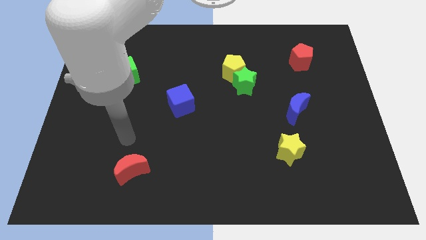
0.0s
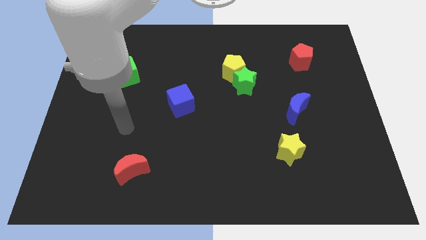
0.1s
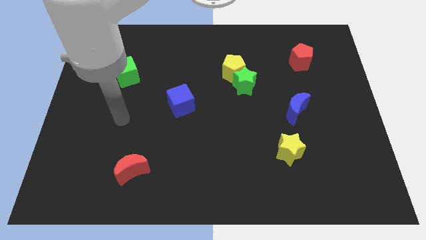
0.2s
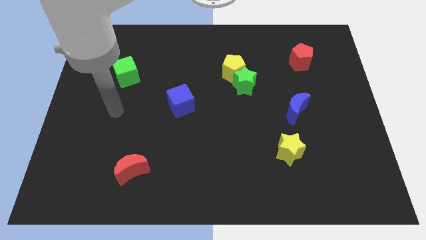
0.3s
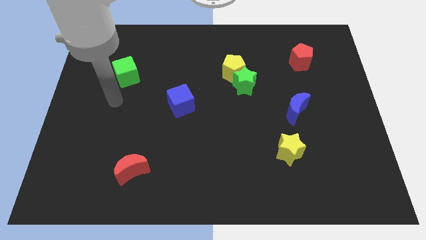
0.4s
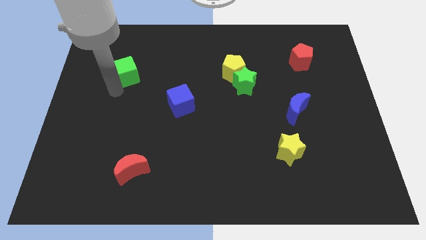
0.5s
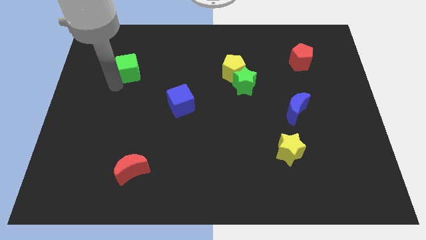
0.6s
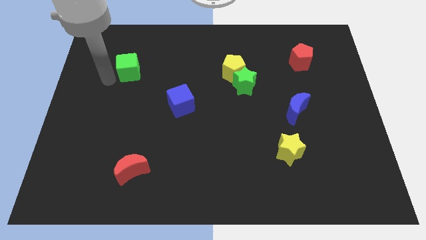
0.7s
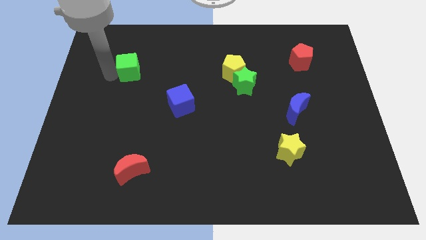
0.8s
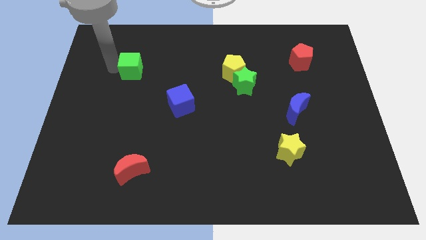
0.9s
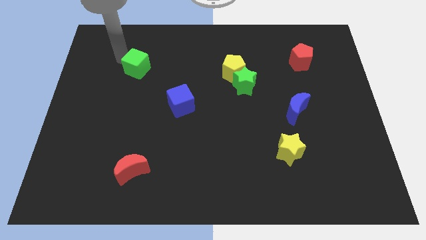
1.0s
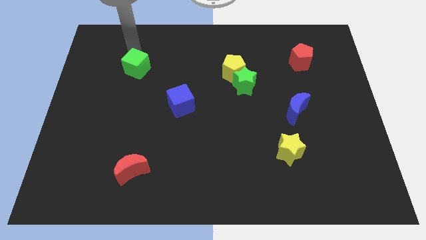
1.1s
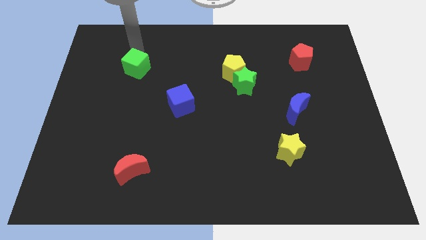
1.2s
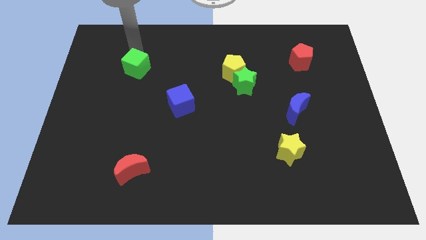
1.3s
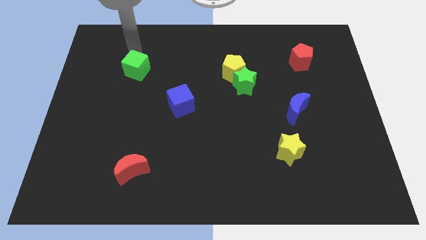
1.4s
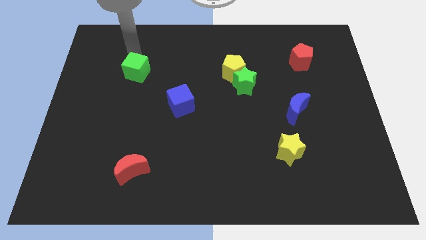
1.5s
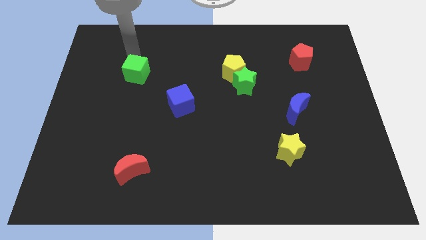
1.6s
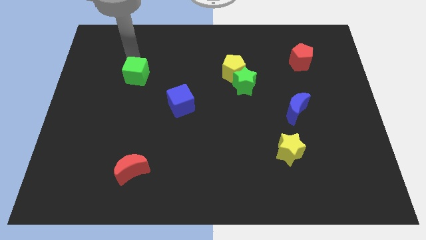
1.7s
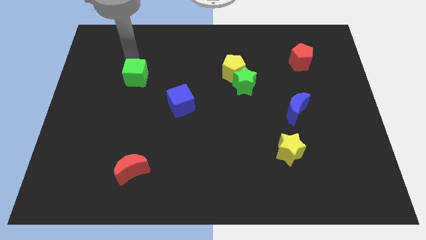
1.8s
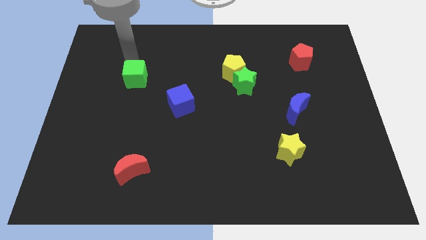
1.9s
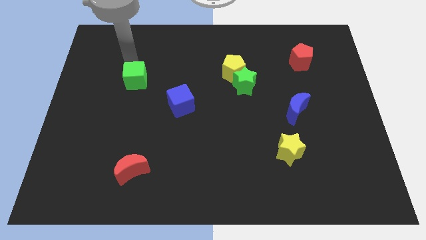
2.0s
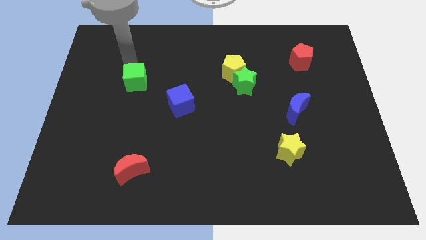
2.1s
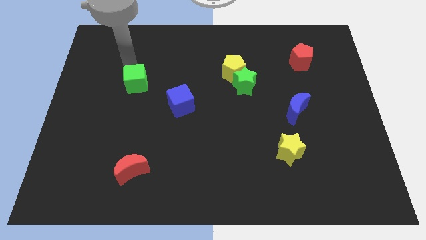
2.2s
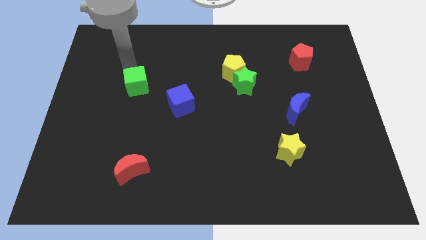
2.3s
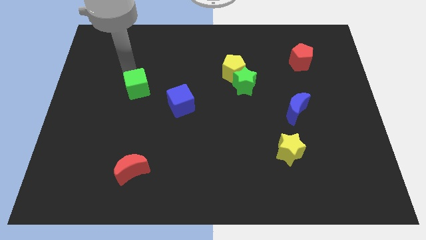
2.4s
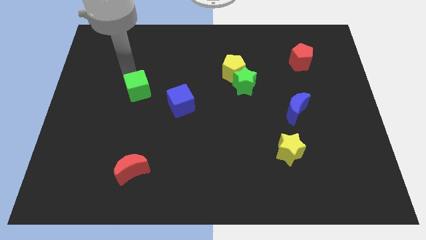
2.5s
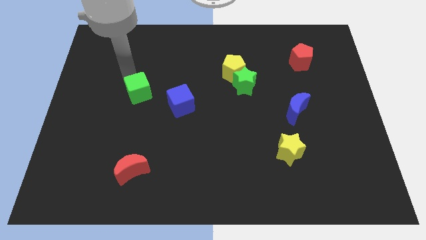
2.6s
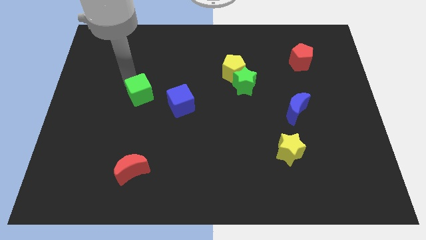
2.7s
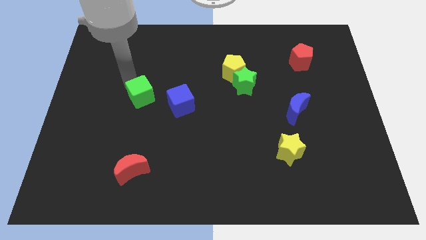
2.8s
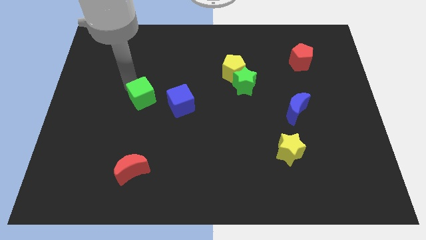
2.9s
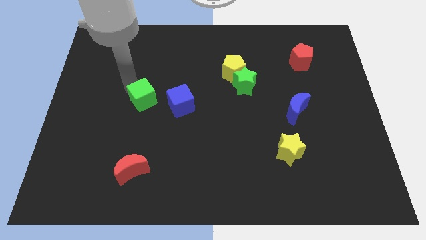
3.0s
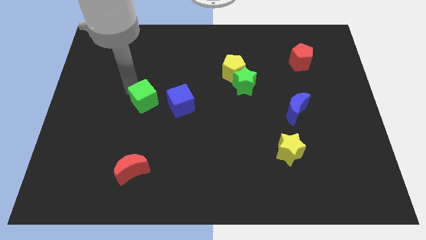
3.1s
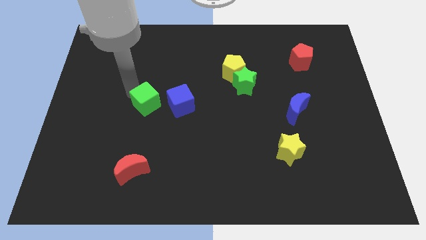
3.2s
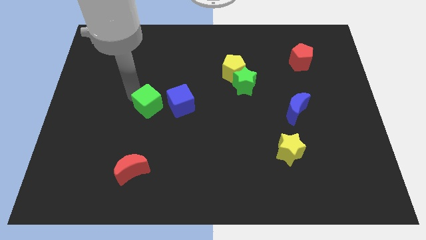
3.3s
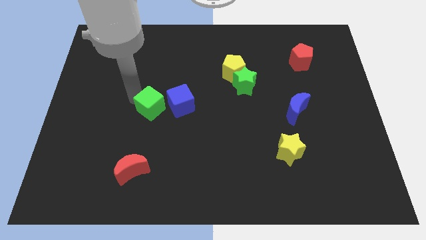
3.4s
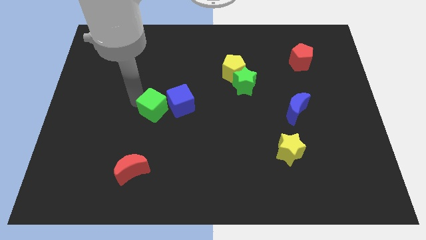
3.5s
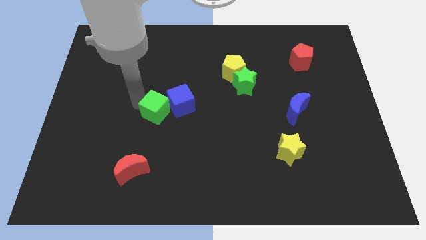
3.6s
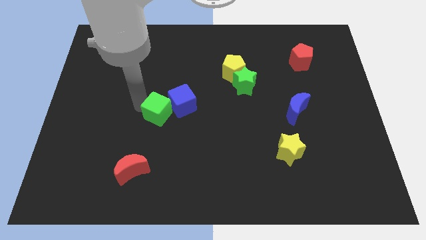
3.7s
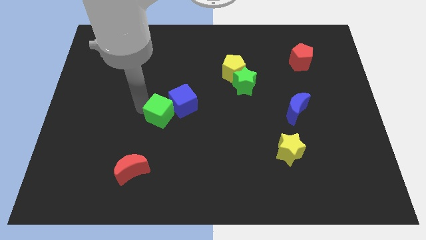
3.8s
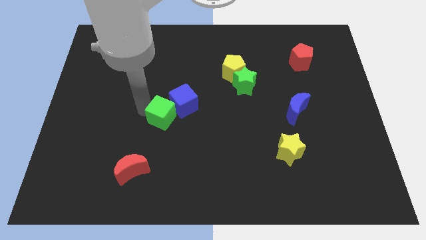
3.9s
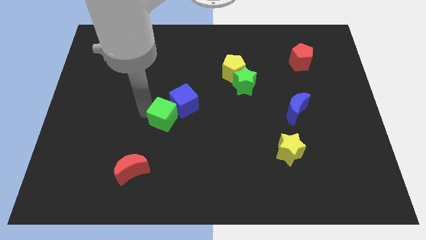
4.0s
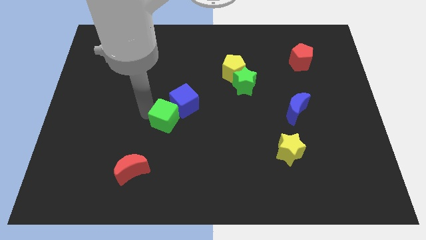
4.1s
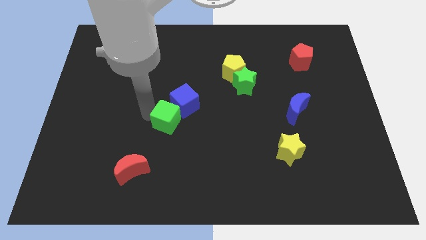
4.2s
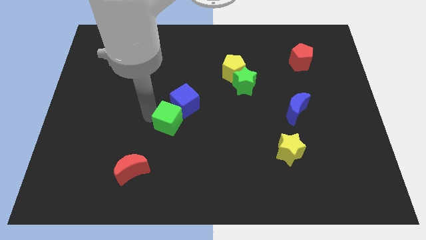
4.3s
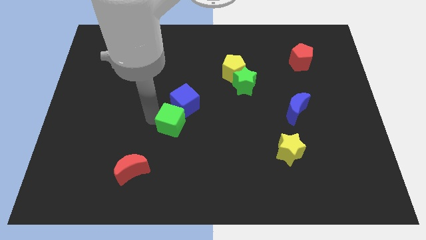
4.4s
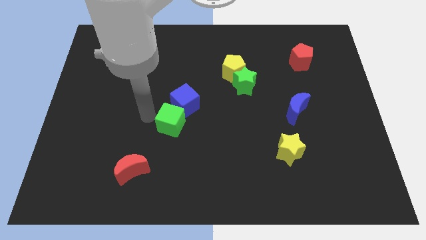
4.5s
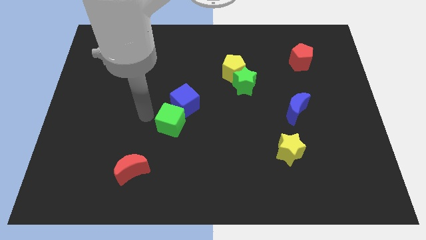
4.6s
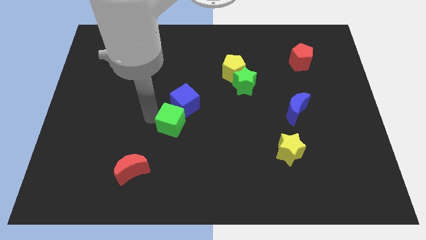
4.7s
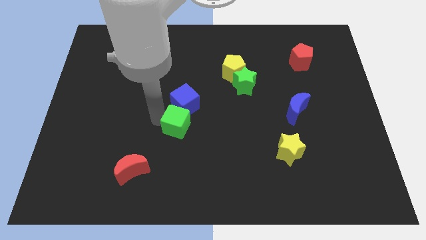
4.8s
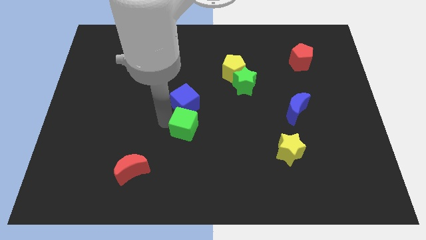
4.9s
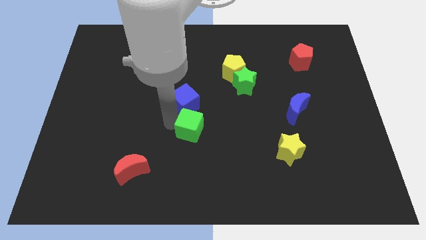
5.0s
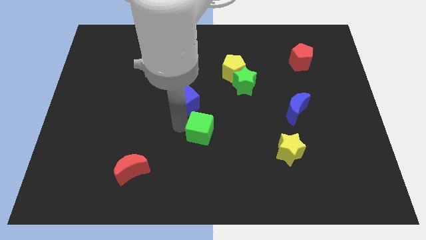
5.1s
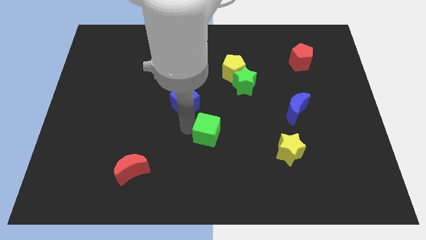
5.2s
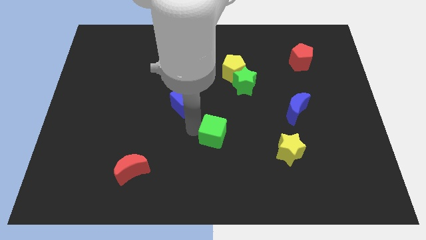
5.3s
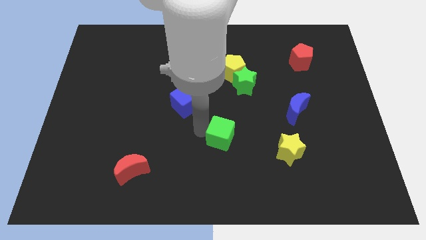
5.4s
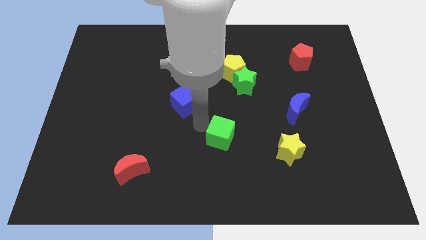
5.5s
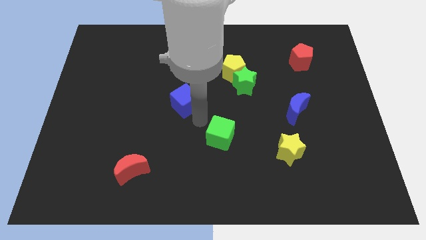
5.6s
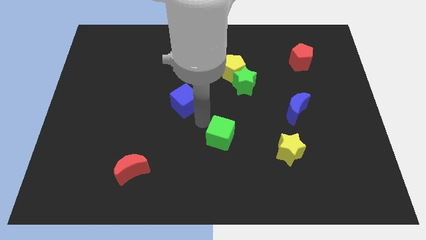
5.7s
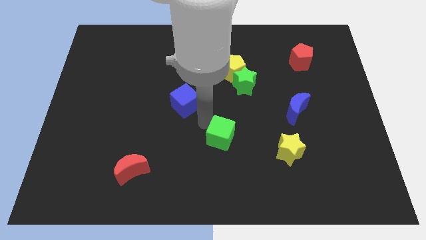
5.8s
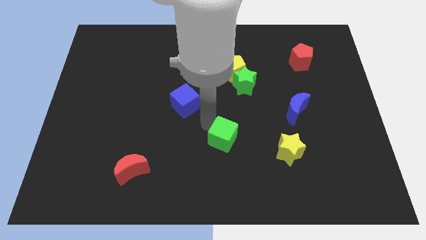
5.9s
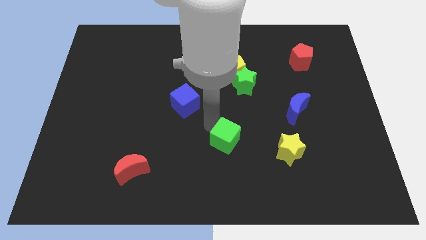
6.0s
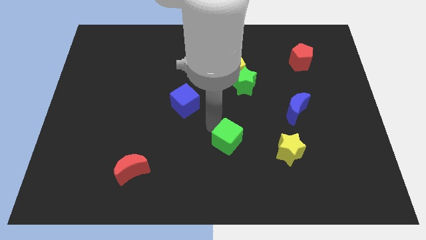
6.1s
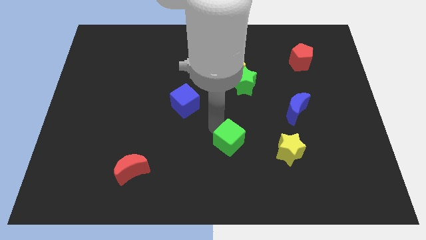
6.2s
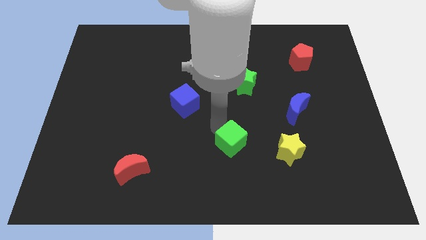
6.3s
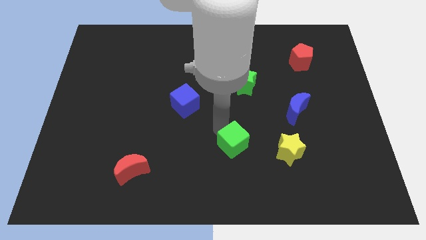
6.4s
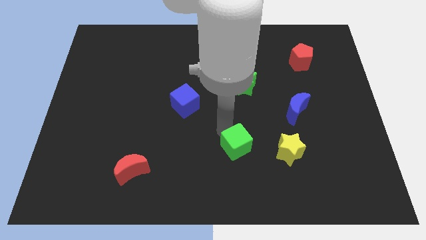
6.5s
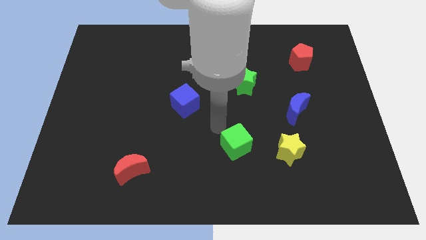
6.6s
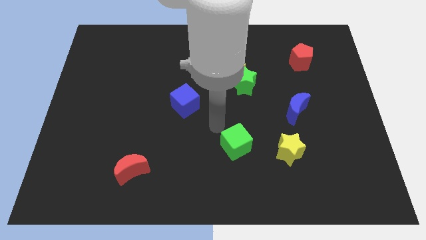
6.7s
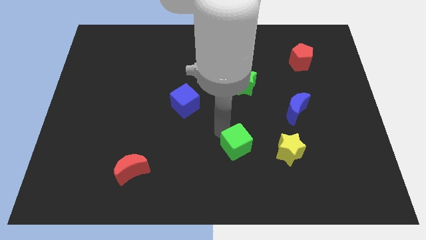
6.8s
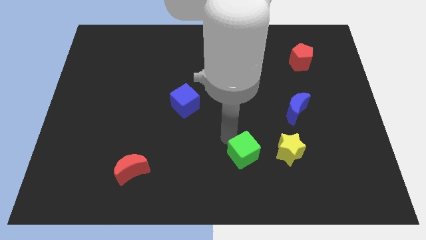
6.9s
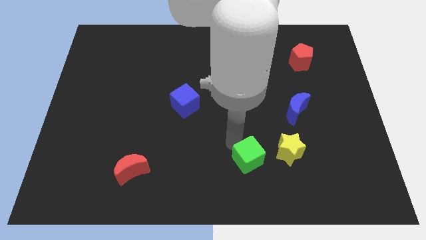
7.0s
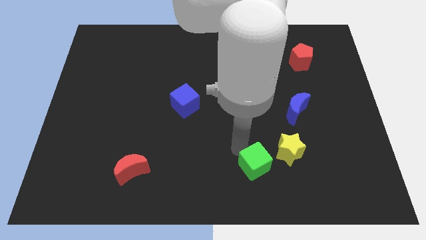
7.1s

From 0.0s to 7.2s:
slide the green cube to the bottom left of the yellow star
